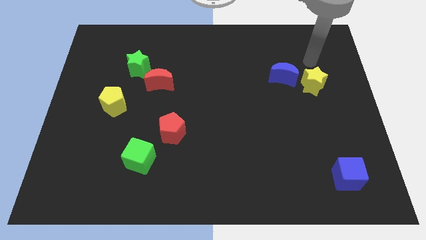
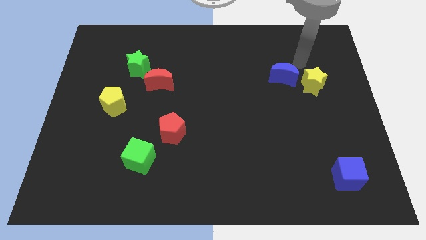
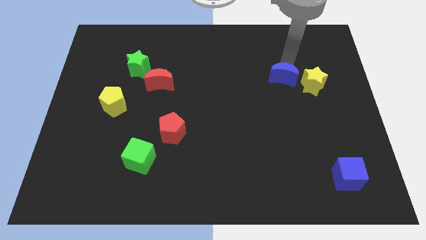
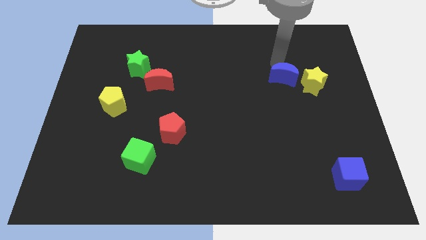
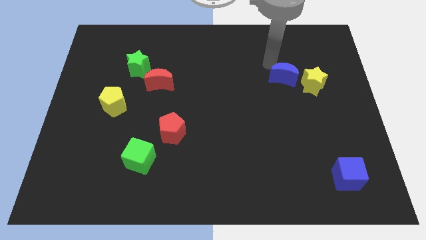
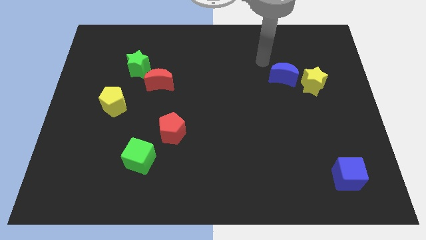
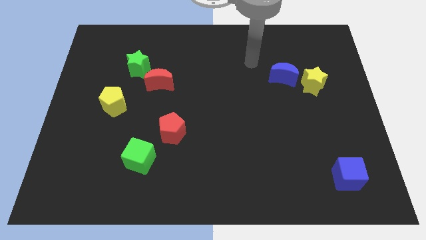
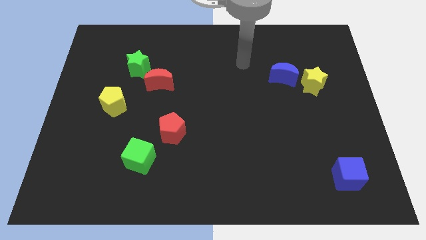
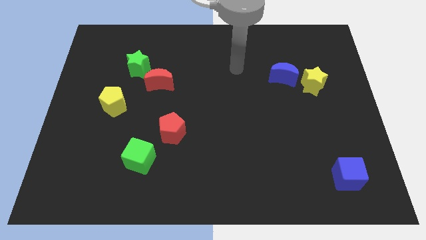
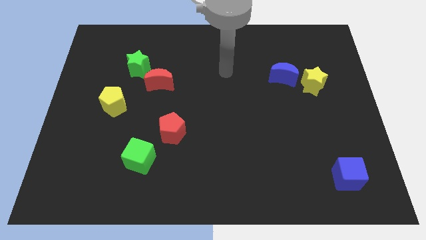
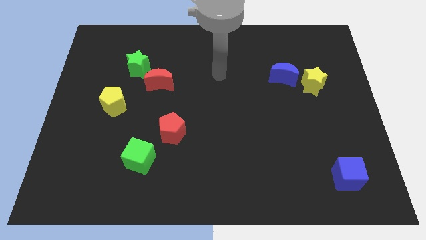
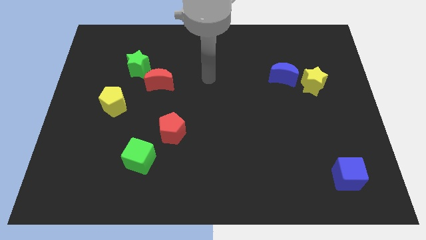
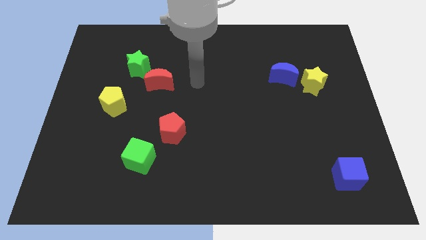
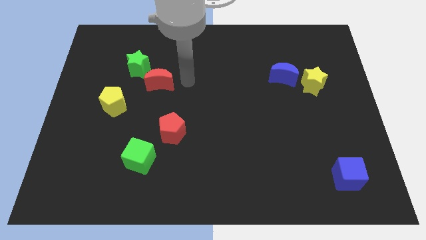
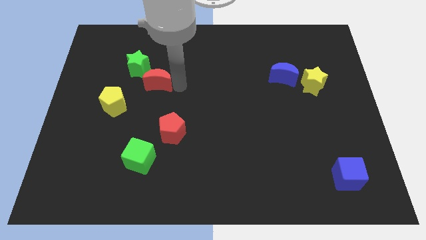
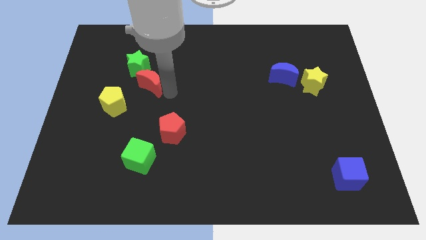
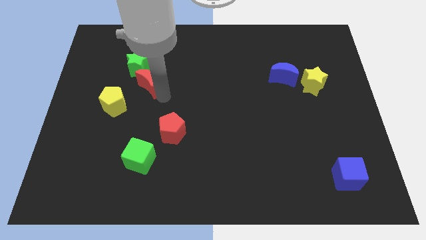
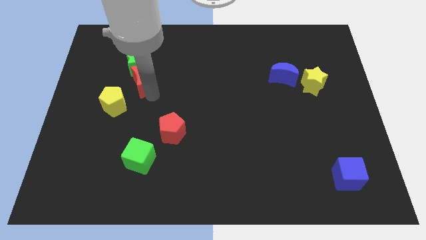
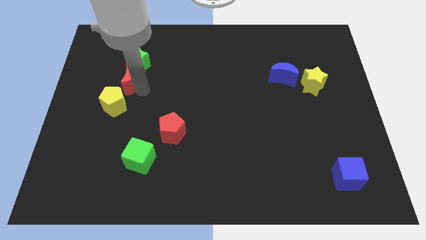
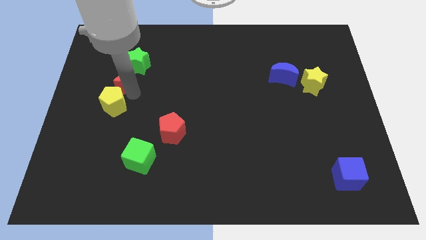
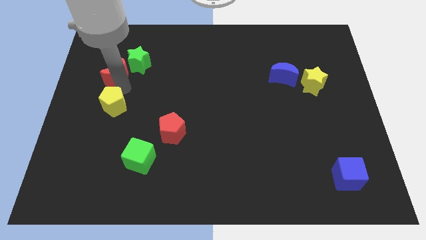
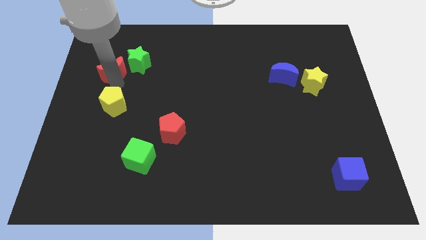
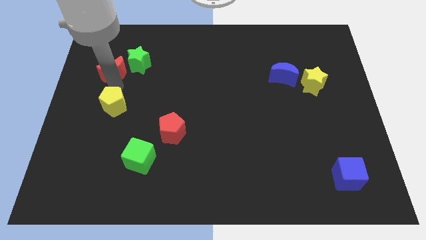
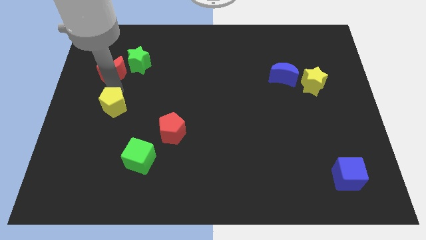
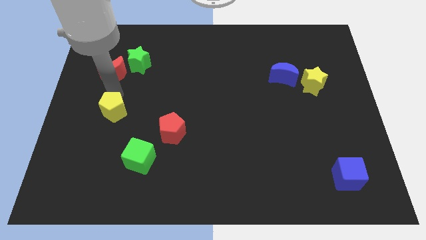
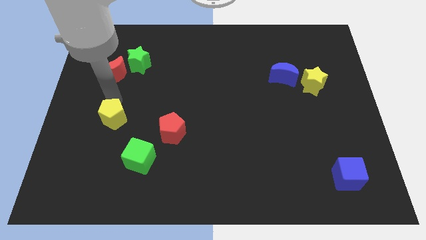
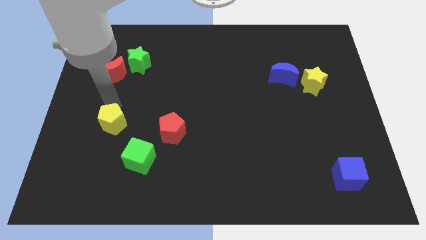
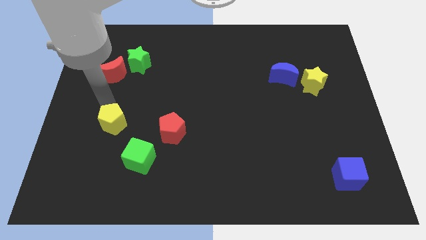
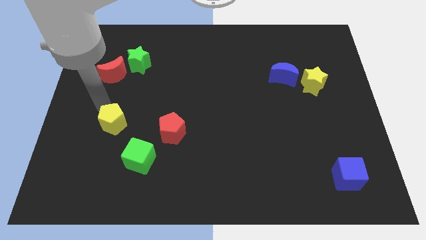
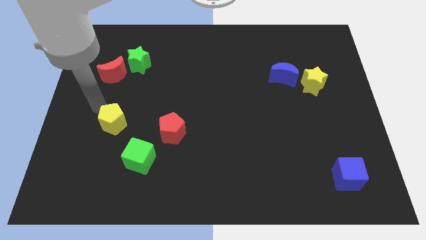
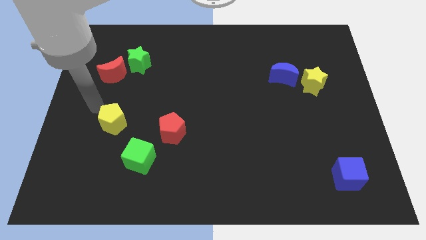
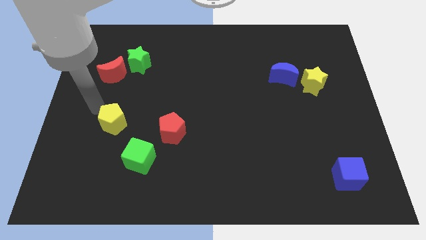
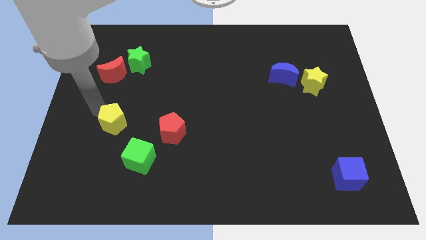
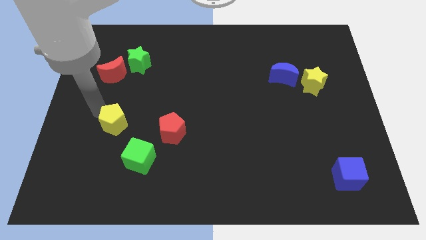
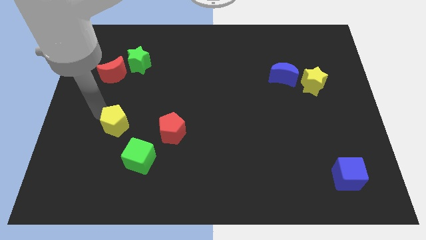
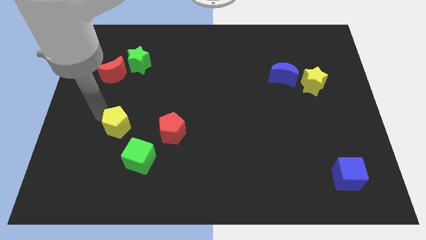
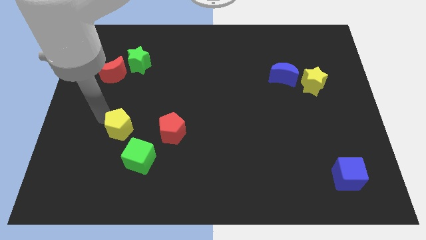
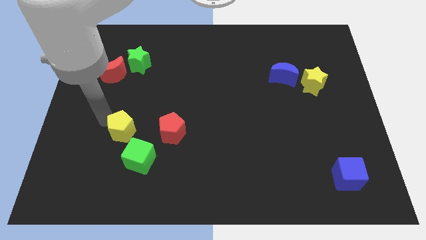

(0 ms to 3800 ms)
push the yellow pentagon downwards and to the right slightly

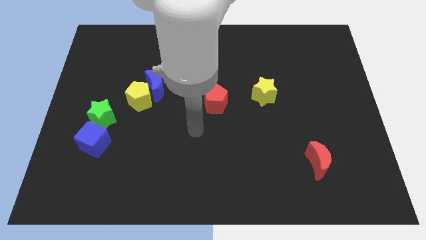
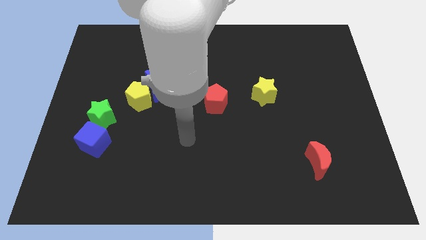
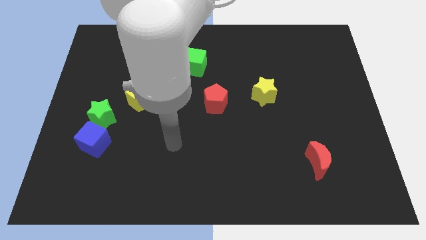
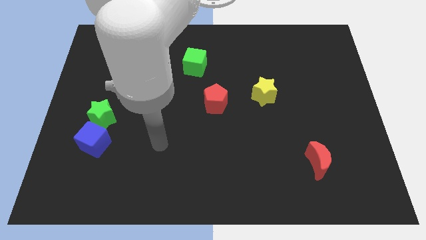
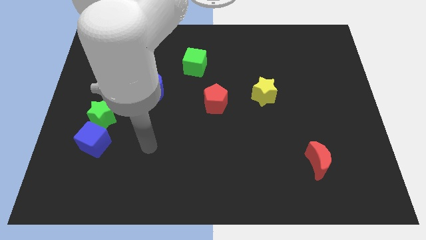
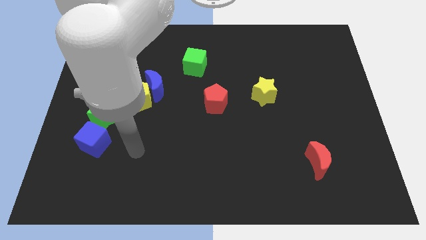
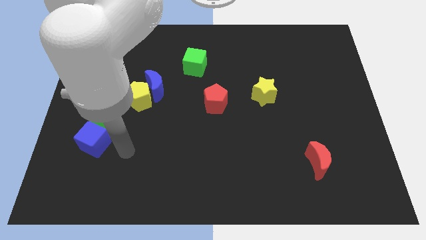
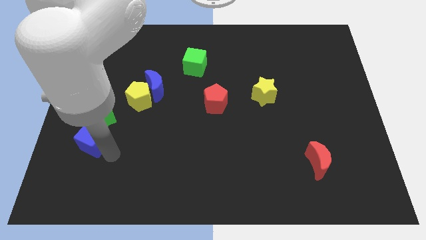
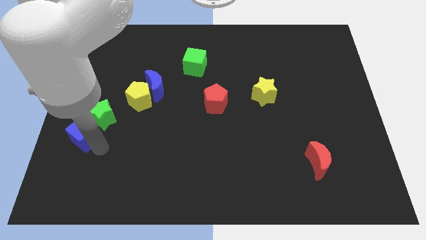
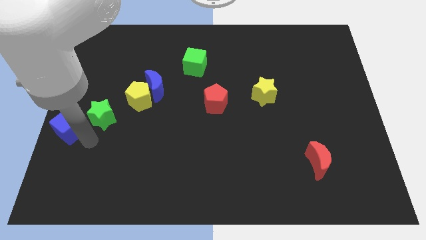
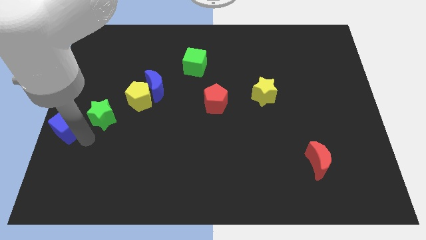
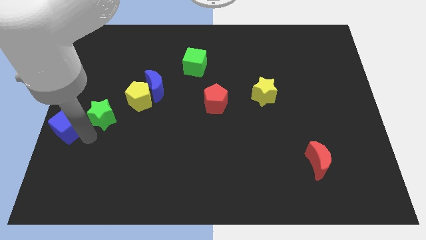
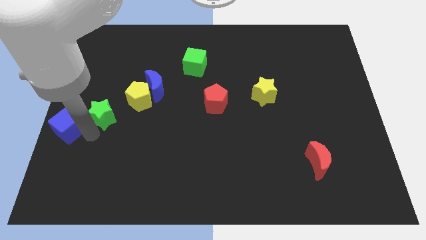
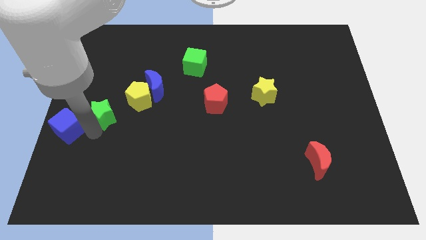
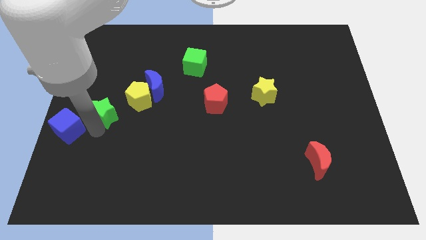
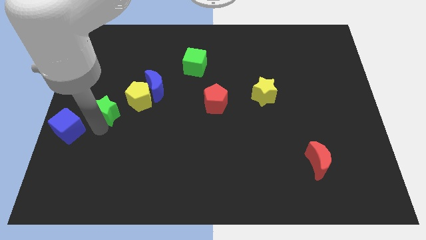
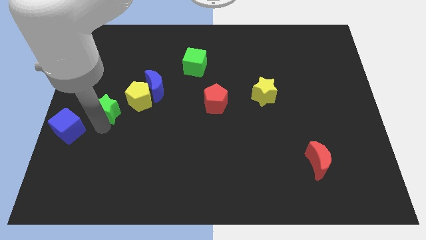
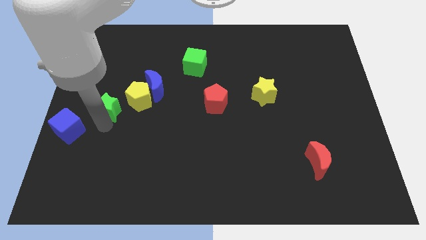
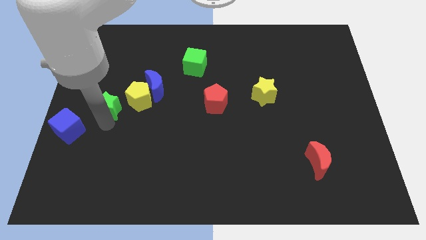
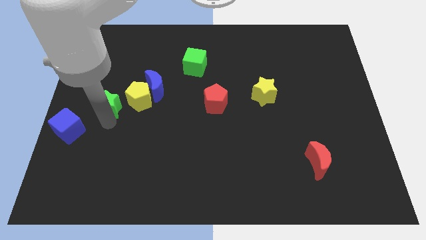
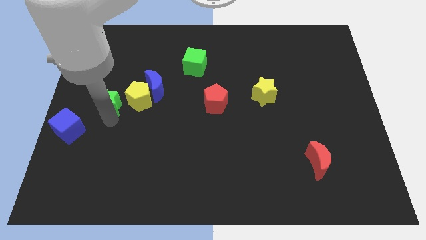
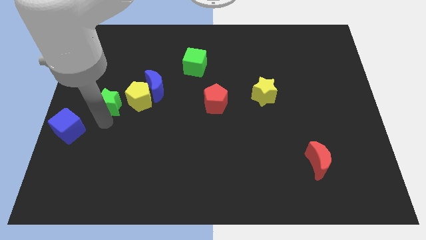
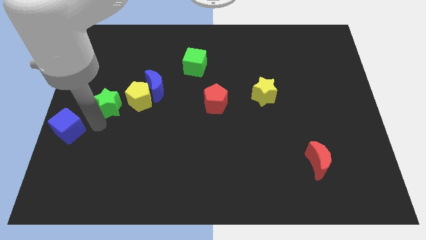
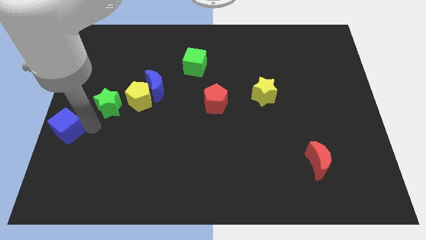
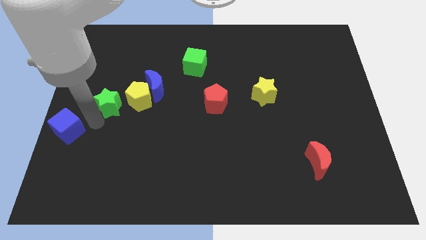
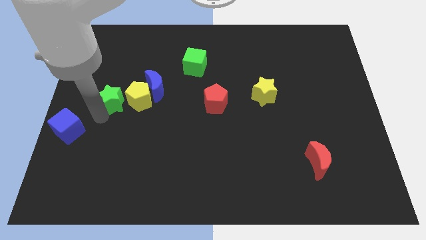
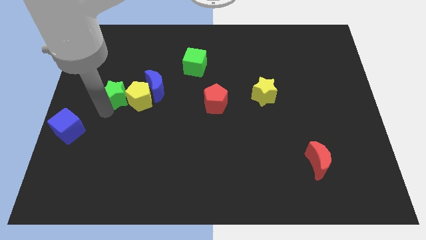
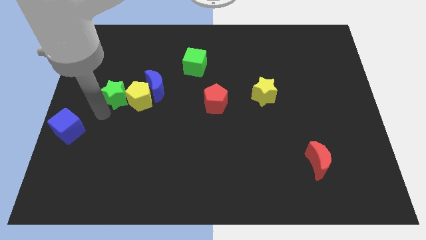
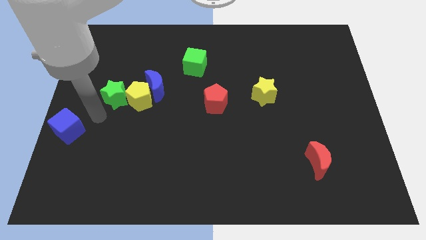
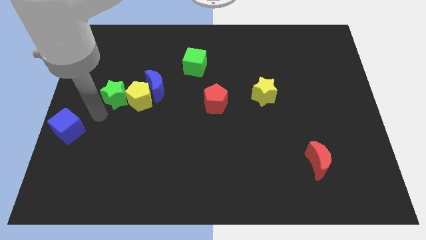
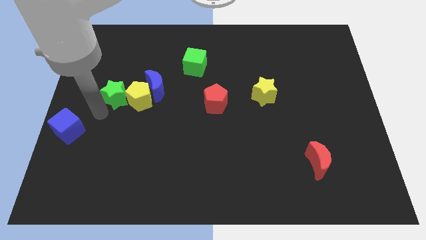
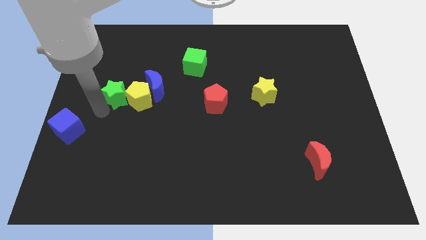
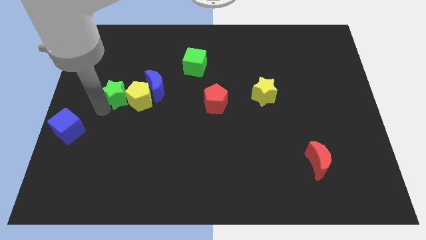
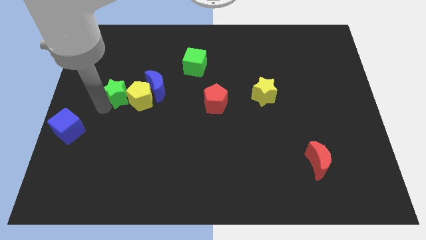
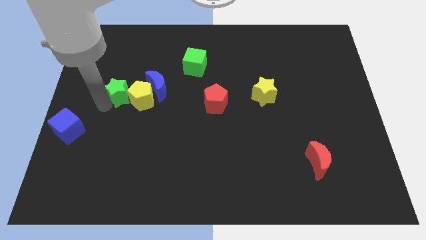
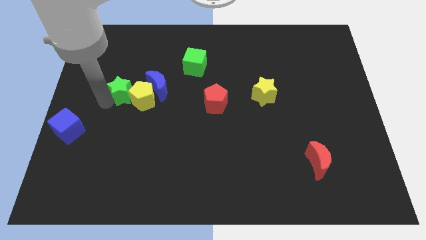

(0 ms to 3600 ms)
slide the green star a bit diagonally up and right

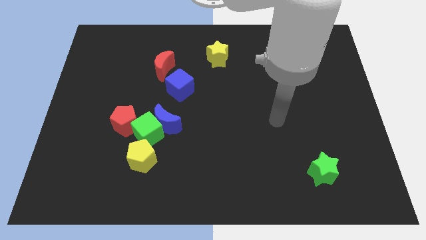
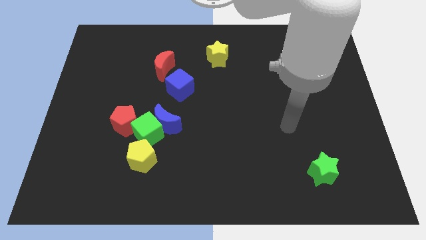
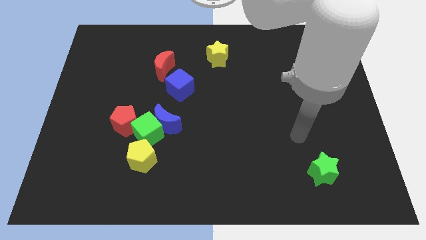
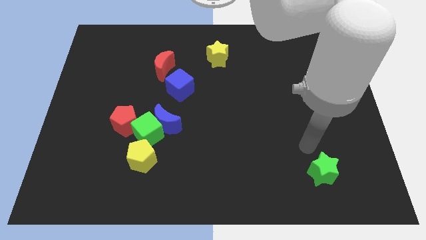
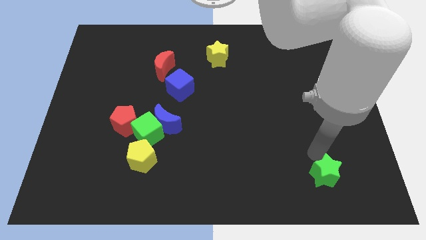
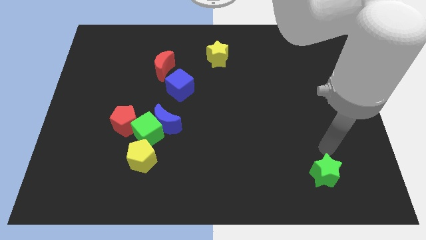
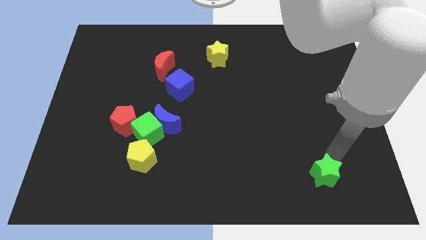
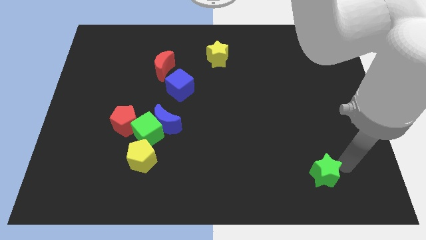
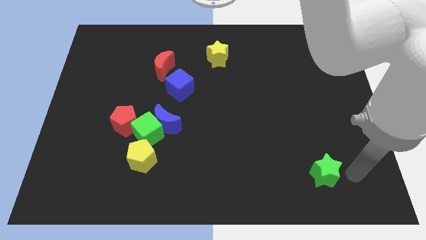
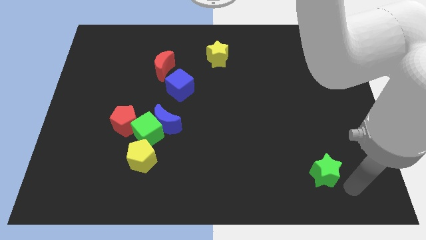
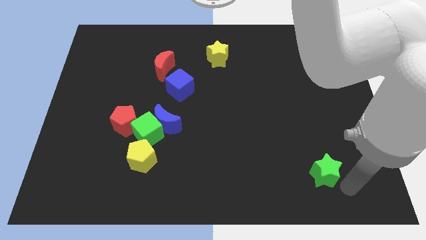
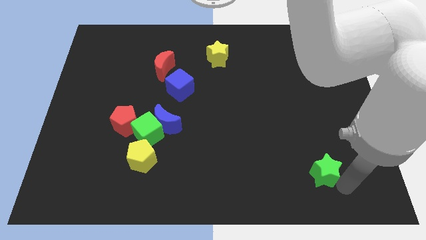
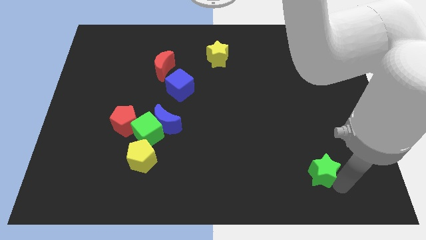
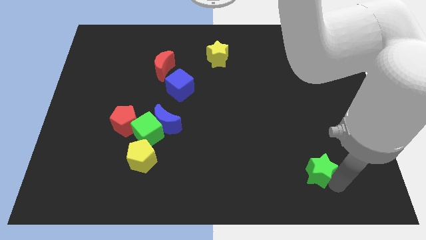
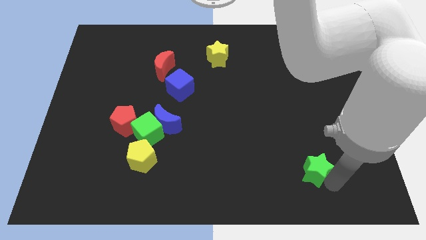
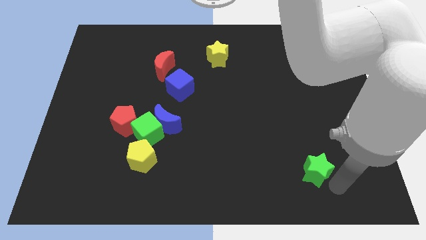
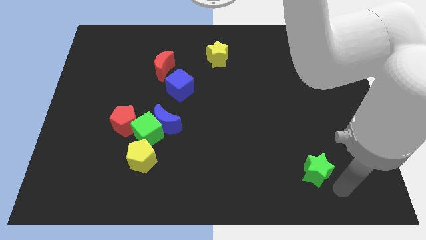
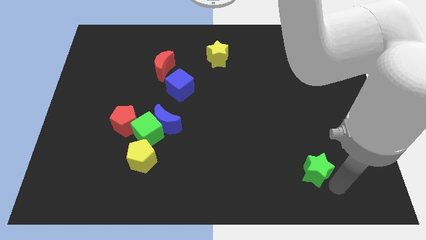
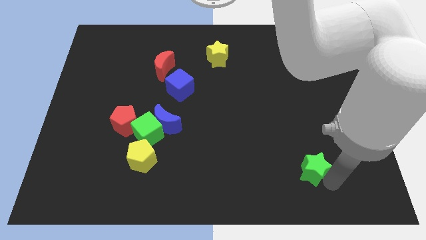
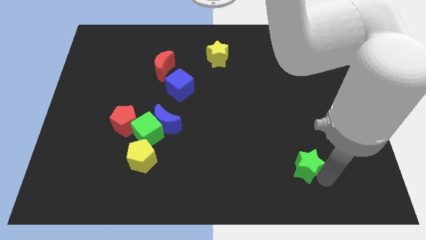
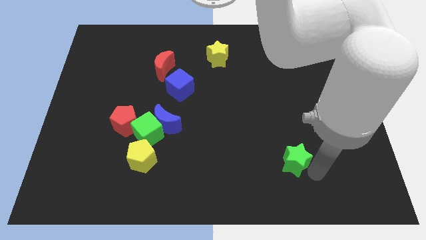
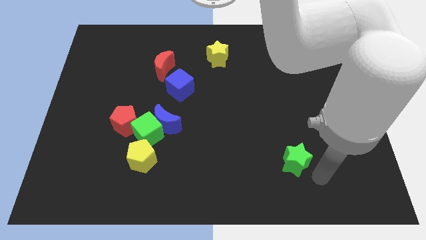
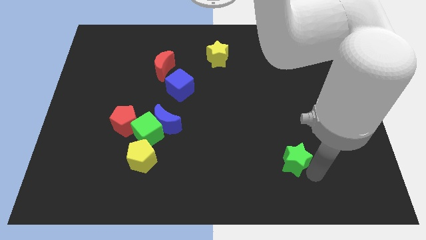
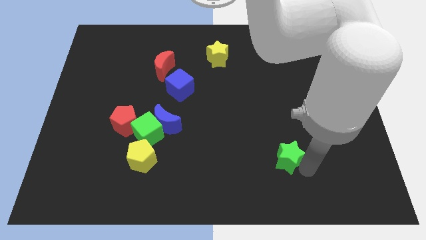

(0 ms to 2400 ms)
move the green star a little upwards and then left
